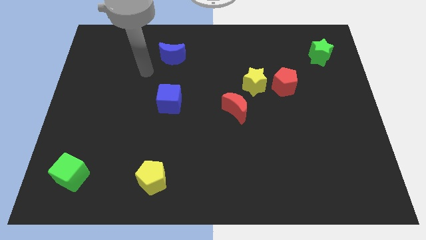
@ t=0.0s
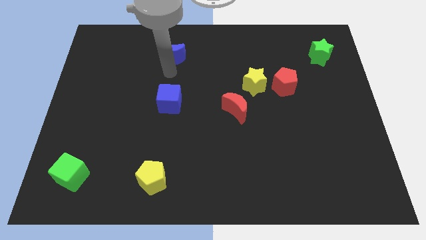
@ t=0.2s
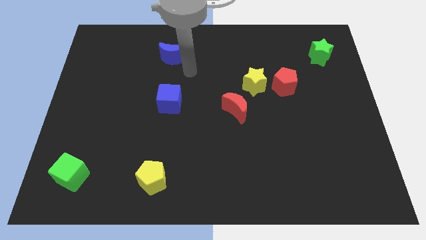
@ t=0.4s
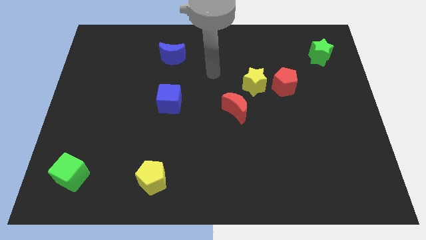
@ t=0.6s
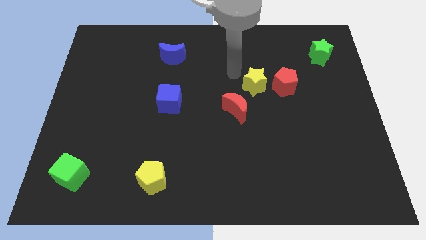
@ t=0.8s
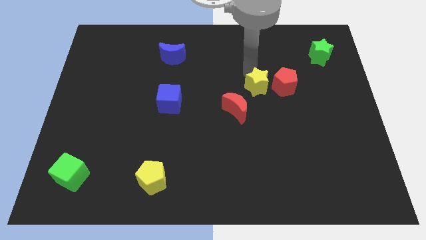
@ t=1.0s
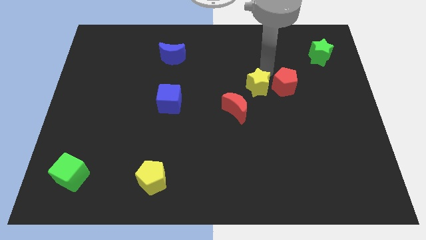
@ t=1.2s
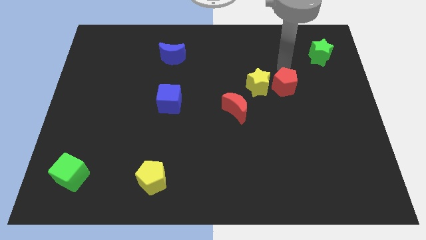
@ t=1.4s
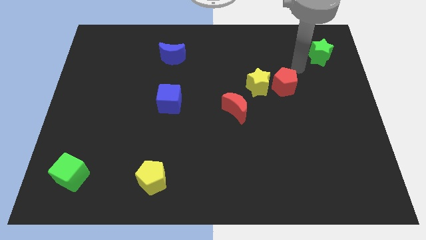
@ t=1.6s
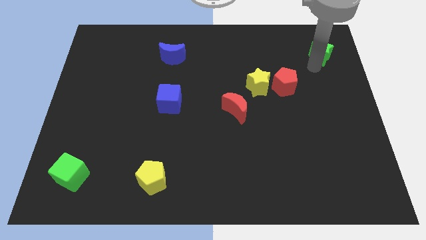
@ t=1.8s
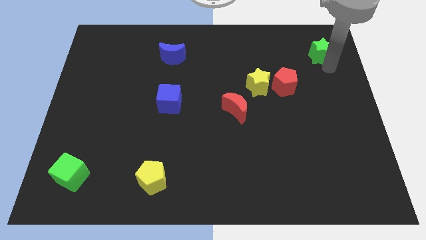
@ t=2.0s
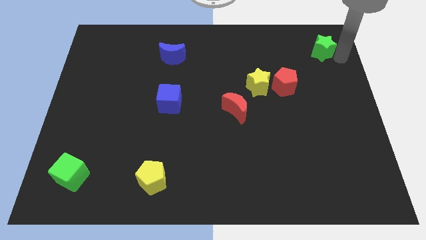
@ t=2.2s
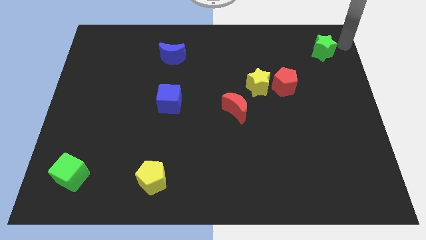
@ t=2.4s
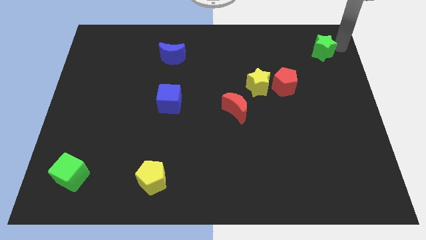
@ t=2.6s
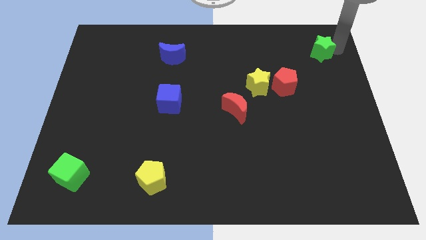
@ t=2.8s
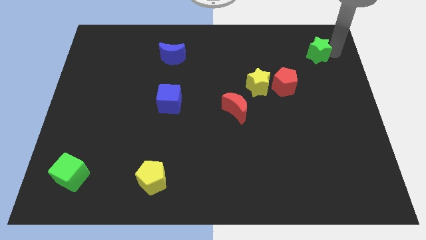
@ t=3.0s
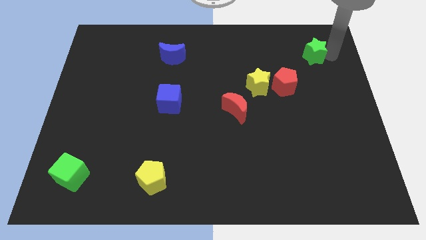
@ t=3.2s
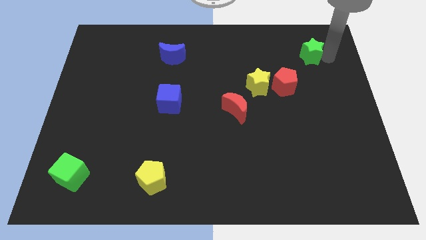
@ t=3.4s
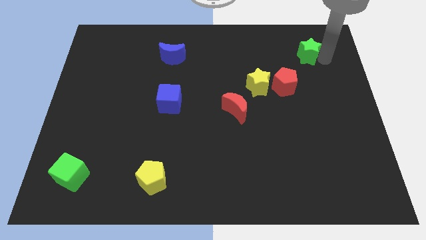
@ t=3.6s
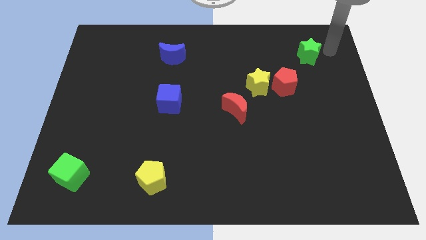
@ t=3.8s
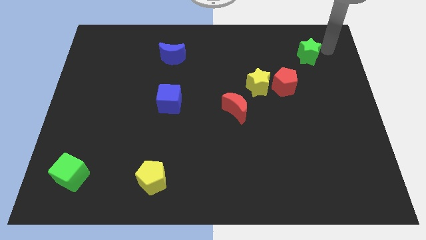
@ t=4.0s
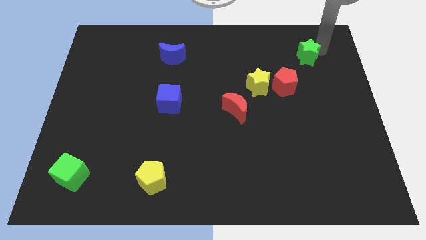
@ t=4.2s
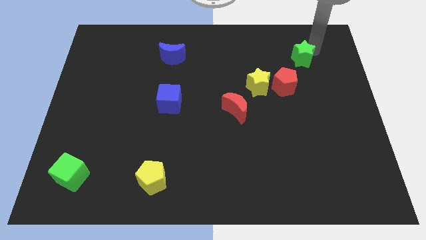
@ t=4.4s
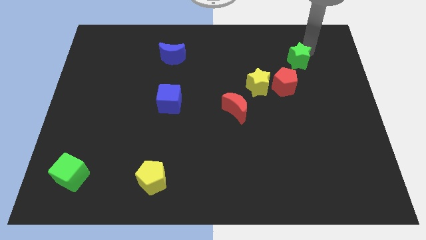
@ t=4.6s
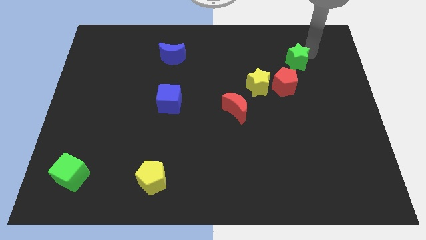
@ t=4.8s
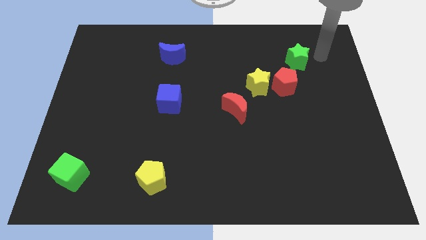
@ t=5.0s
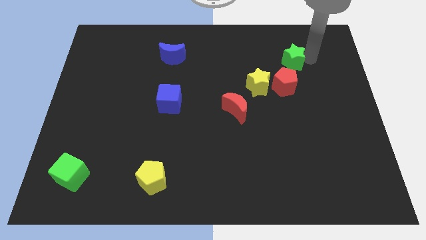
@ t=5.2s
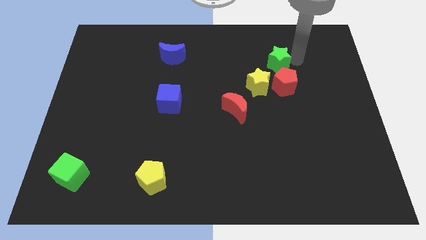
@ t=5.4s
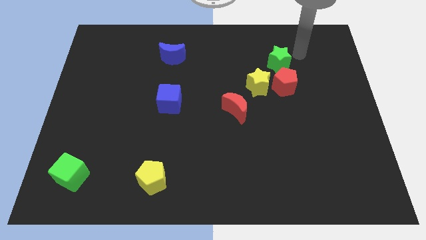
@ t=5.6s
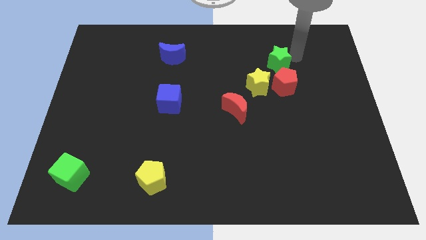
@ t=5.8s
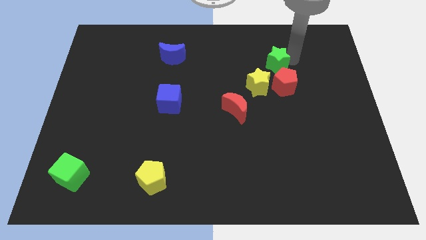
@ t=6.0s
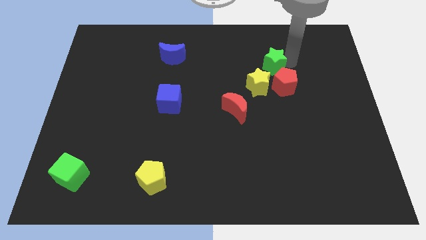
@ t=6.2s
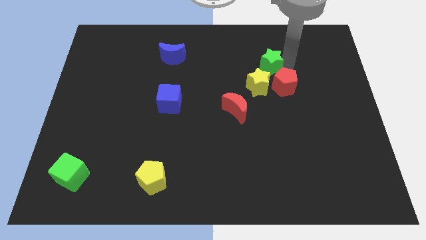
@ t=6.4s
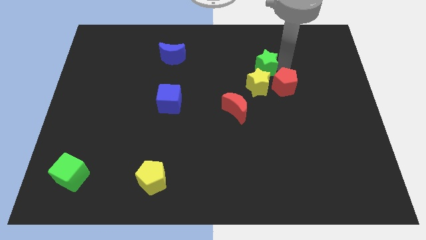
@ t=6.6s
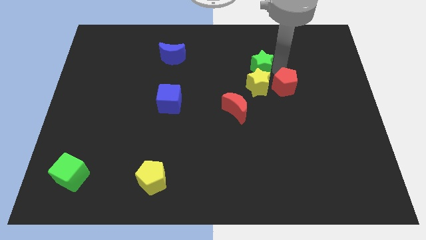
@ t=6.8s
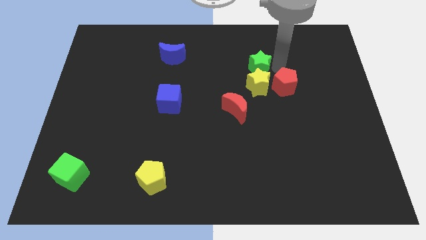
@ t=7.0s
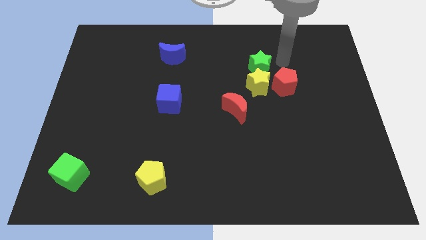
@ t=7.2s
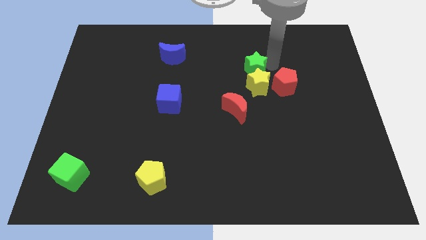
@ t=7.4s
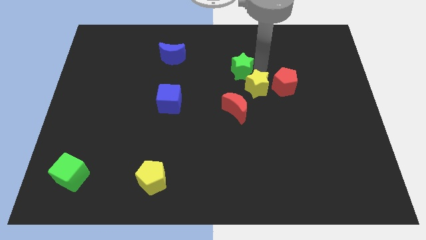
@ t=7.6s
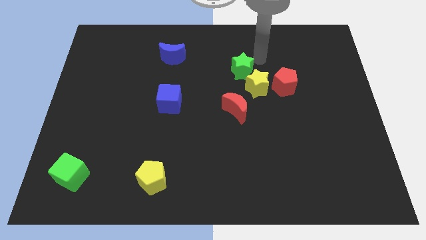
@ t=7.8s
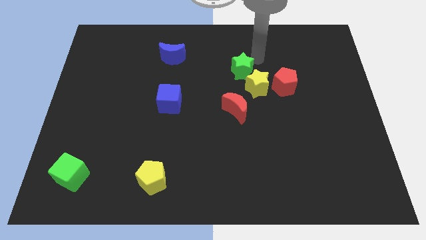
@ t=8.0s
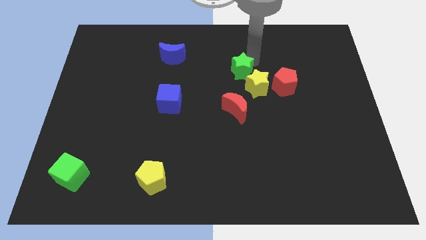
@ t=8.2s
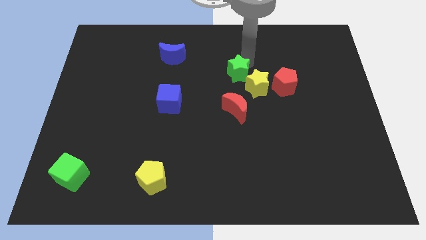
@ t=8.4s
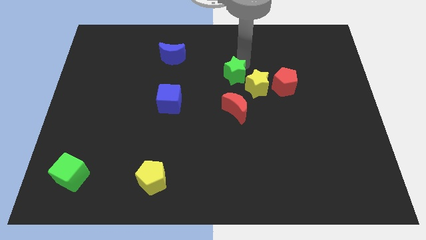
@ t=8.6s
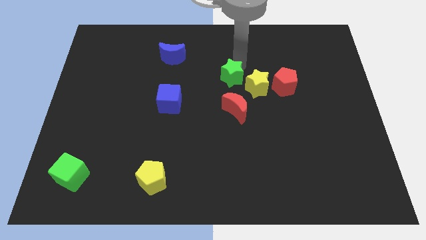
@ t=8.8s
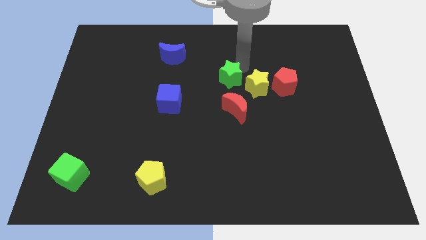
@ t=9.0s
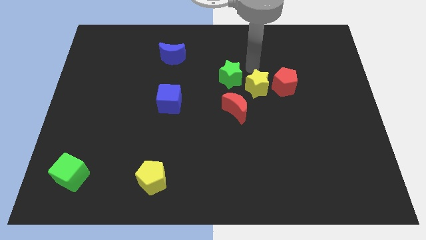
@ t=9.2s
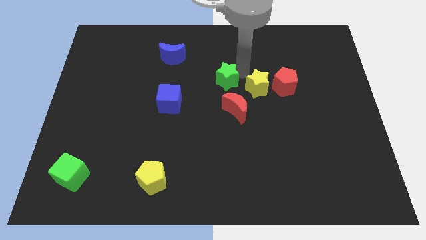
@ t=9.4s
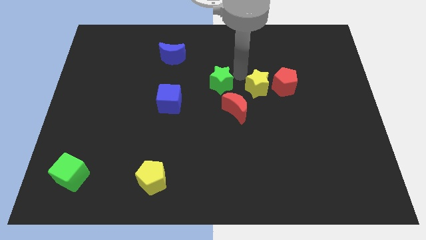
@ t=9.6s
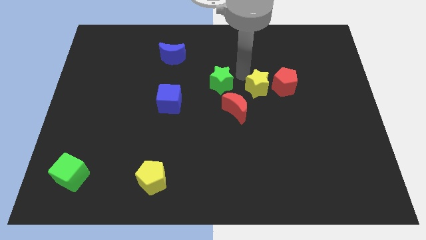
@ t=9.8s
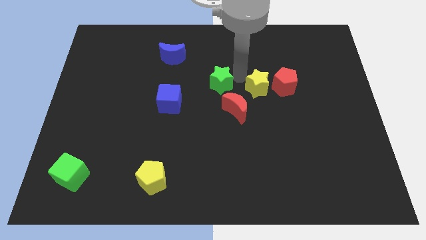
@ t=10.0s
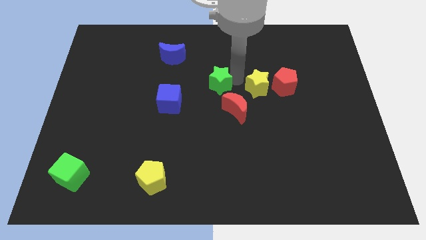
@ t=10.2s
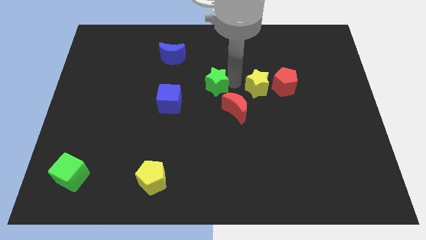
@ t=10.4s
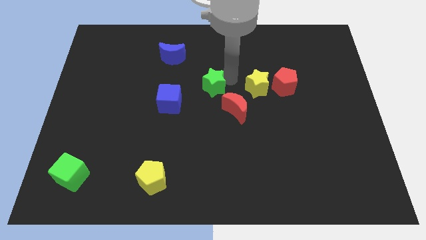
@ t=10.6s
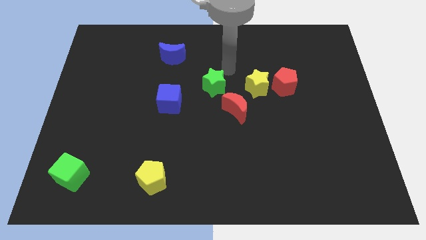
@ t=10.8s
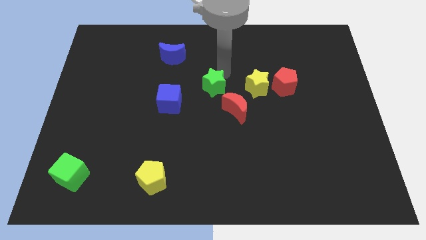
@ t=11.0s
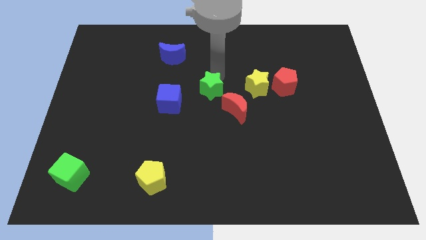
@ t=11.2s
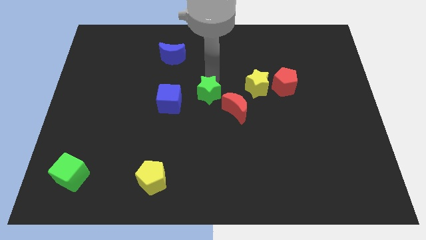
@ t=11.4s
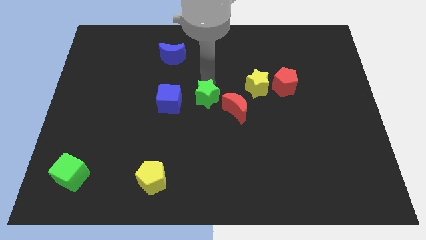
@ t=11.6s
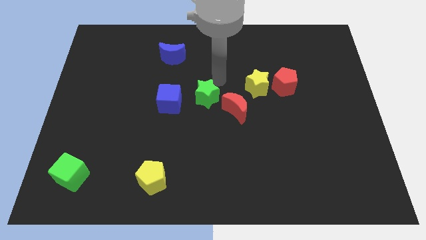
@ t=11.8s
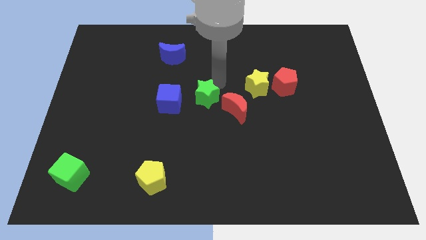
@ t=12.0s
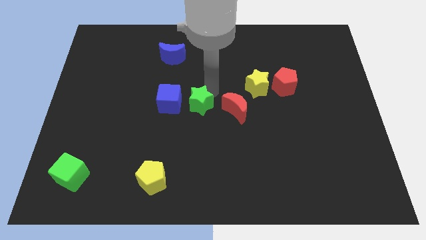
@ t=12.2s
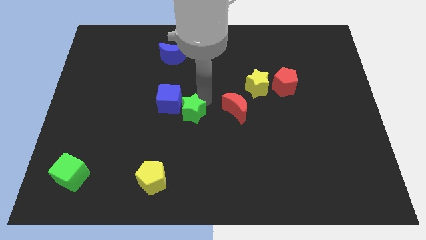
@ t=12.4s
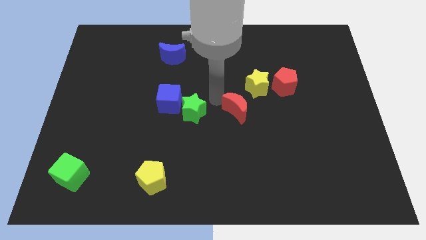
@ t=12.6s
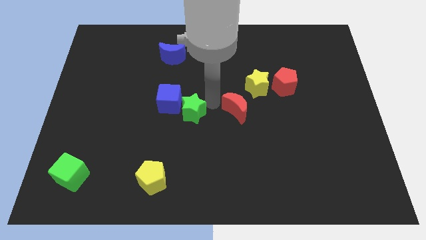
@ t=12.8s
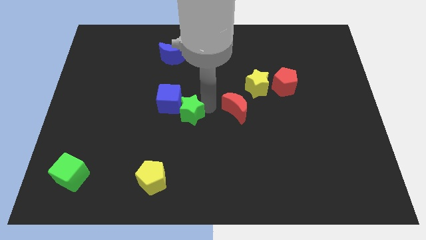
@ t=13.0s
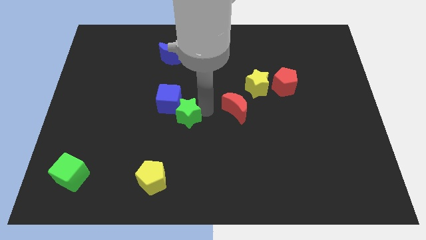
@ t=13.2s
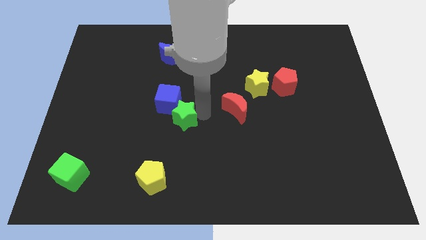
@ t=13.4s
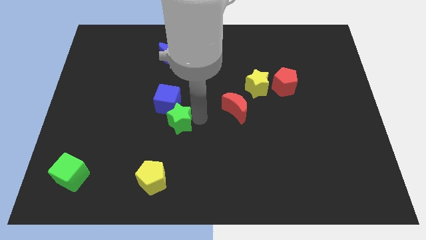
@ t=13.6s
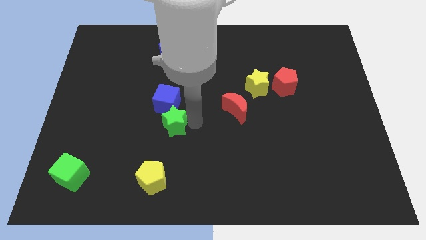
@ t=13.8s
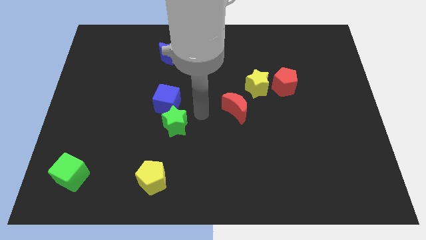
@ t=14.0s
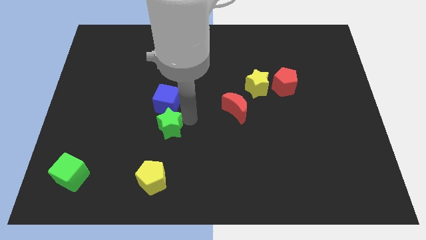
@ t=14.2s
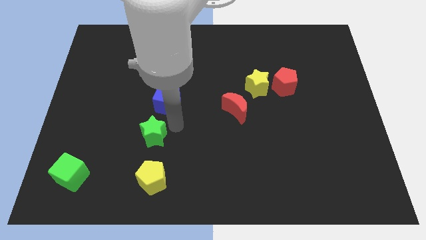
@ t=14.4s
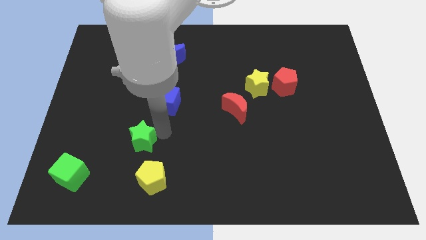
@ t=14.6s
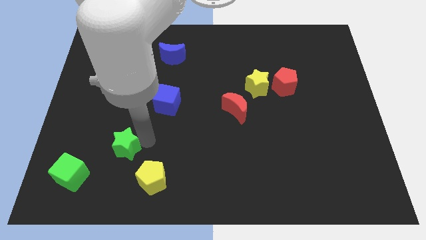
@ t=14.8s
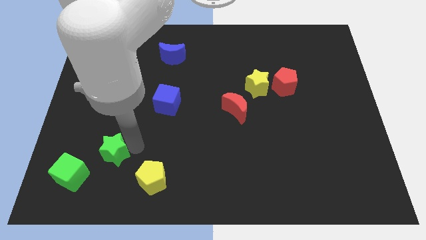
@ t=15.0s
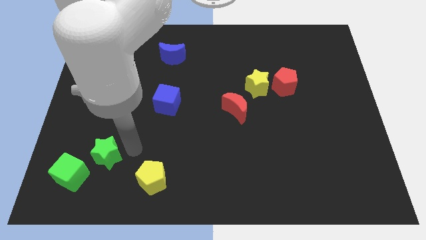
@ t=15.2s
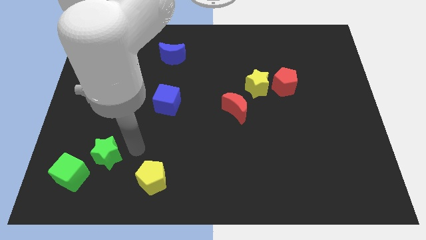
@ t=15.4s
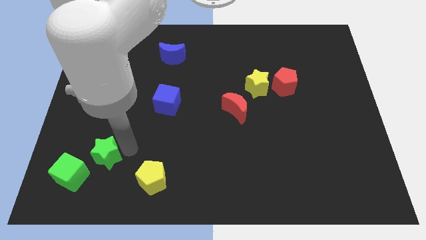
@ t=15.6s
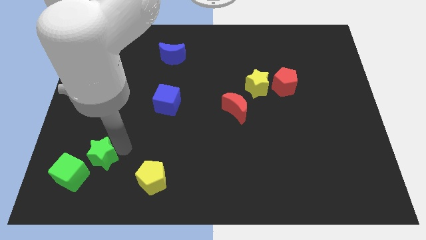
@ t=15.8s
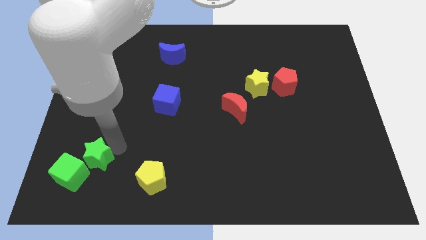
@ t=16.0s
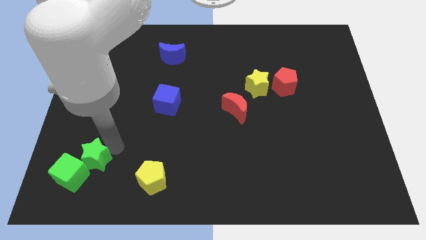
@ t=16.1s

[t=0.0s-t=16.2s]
slide the green star next to the green cube
